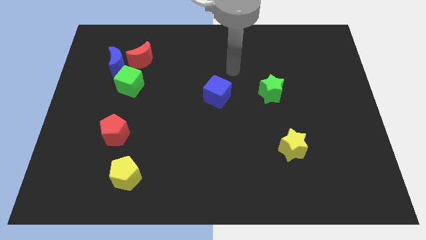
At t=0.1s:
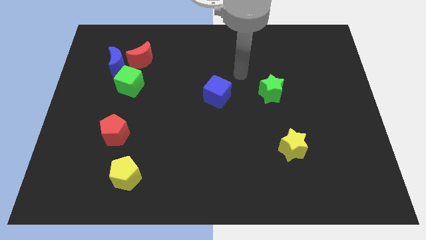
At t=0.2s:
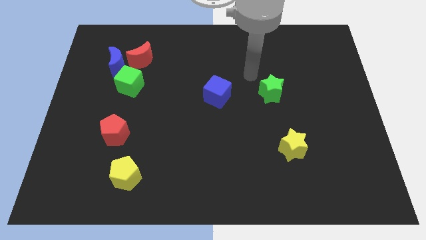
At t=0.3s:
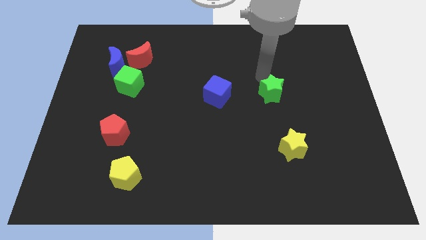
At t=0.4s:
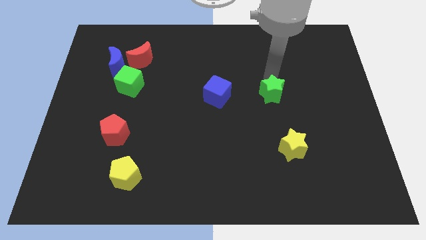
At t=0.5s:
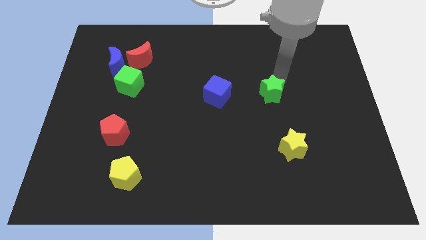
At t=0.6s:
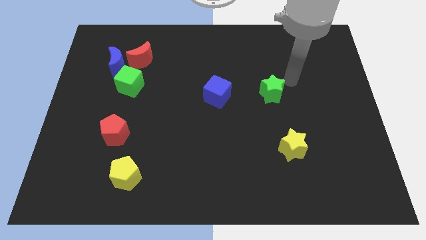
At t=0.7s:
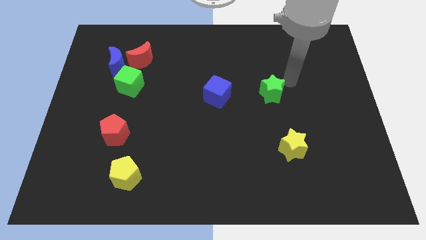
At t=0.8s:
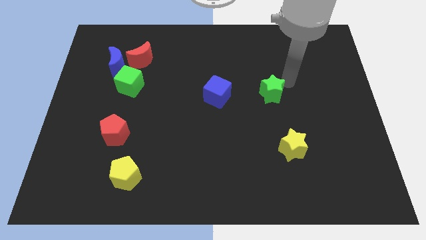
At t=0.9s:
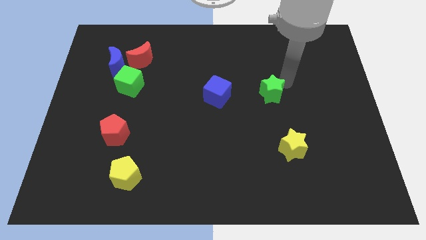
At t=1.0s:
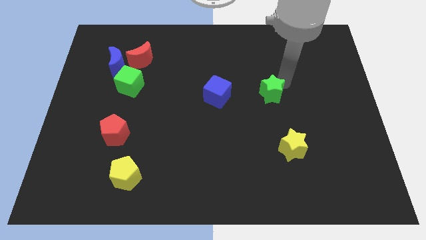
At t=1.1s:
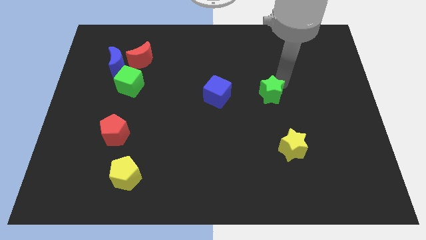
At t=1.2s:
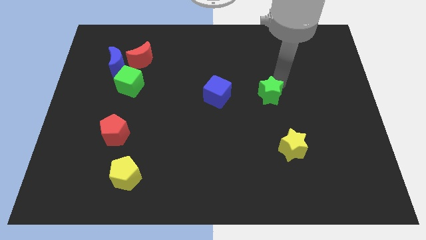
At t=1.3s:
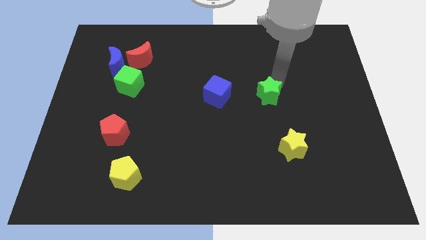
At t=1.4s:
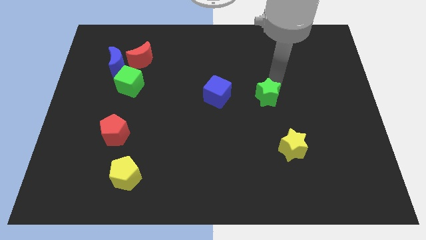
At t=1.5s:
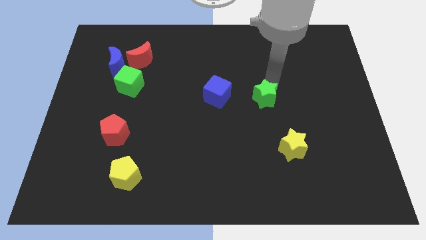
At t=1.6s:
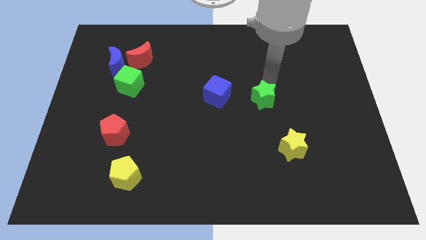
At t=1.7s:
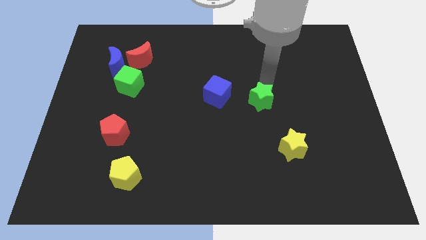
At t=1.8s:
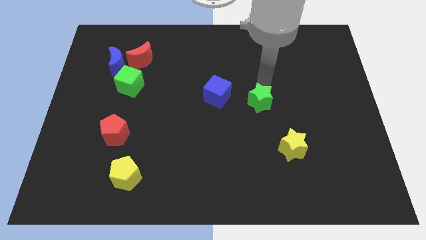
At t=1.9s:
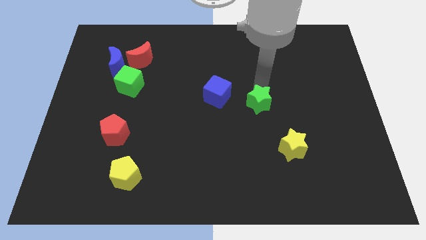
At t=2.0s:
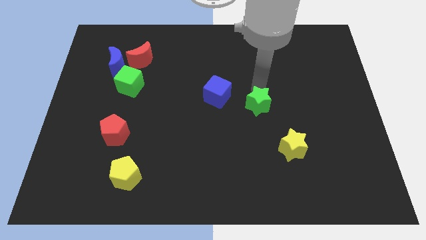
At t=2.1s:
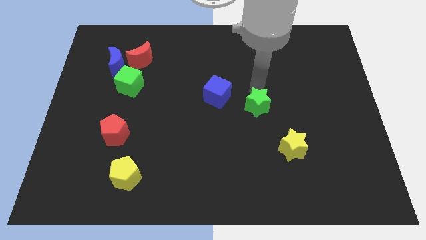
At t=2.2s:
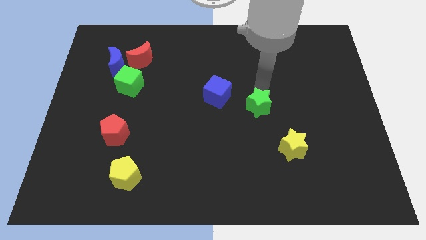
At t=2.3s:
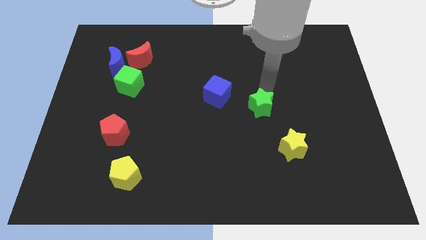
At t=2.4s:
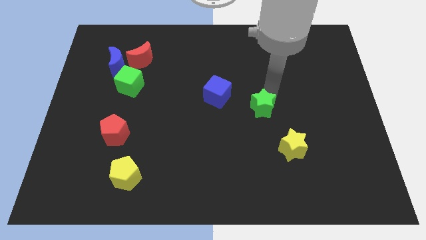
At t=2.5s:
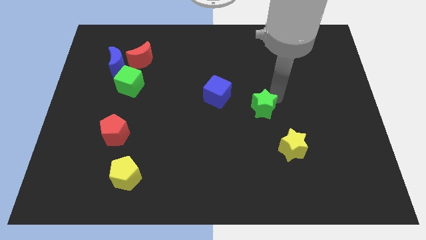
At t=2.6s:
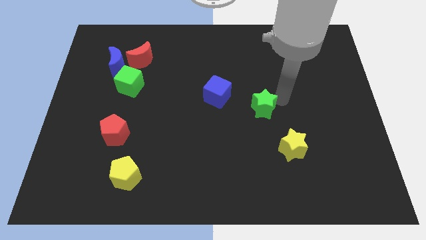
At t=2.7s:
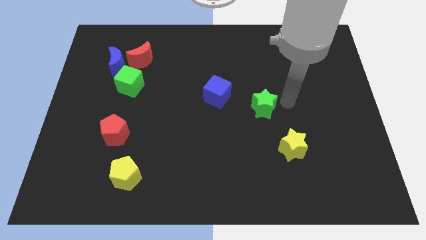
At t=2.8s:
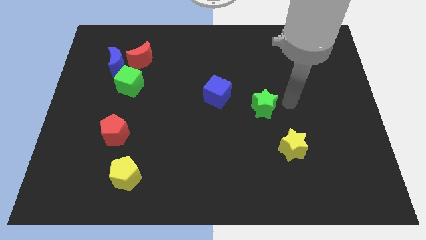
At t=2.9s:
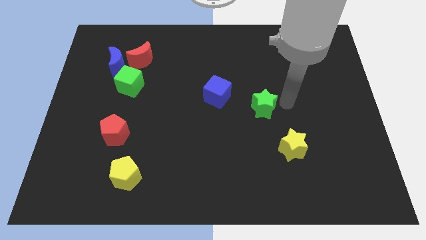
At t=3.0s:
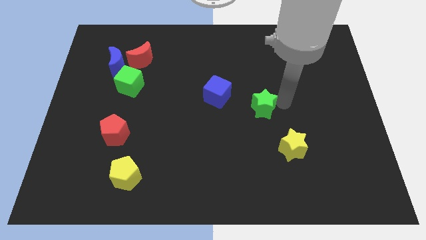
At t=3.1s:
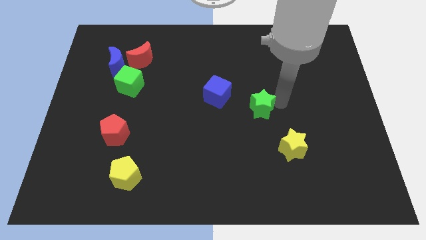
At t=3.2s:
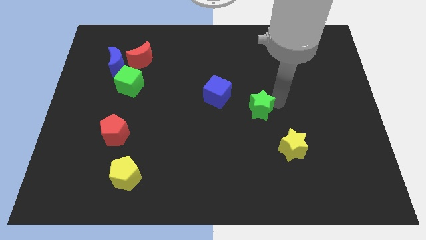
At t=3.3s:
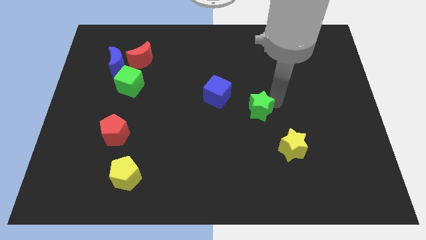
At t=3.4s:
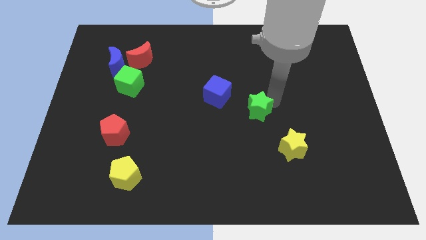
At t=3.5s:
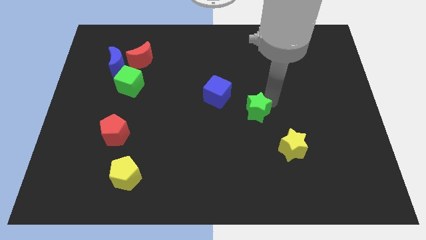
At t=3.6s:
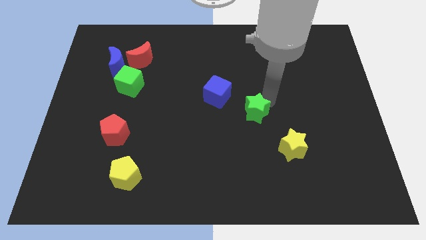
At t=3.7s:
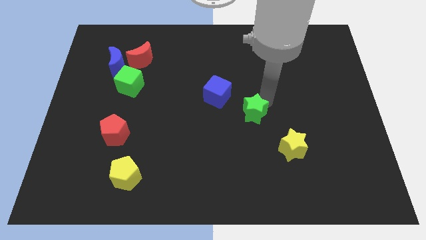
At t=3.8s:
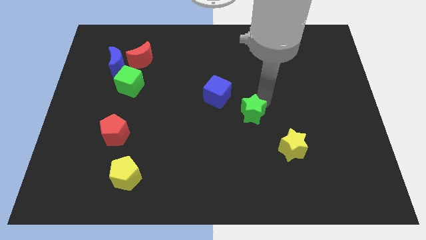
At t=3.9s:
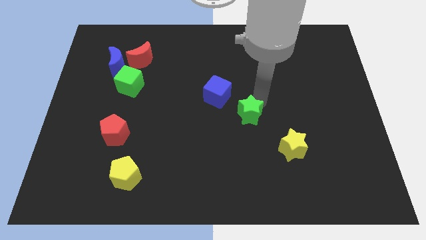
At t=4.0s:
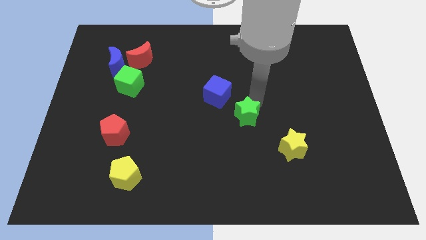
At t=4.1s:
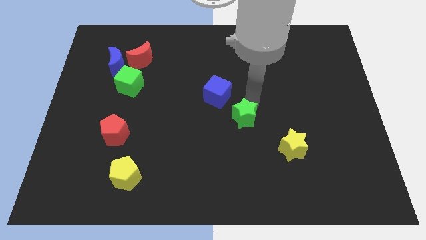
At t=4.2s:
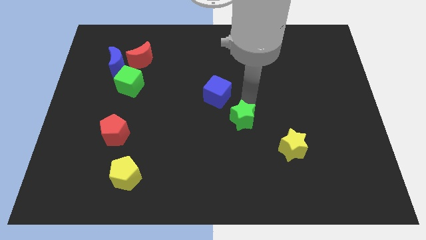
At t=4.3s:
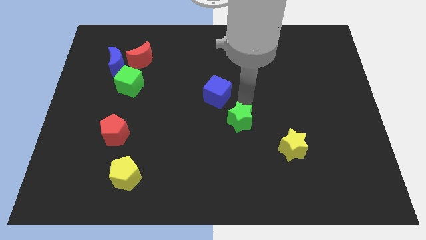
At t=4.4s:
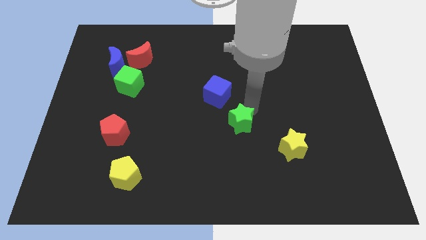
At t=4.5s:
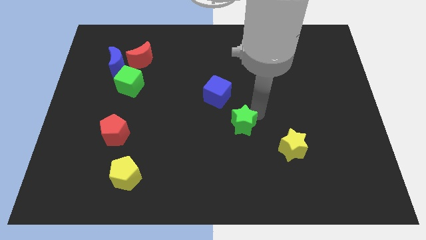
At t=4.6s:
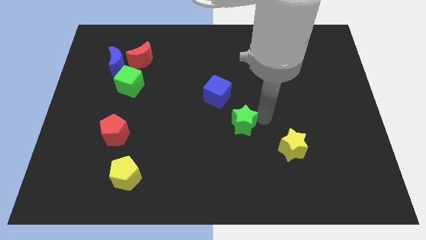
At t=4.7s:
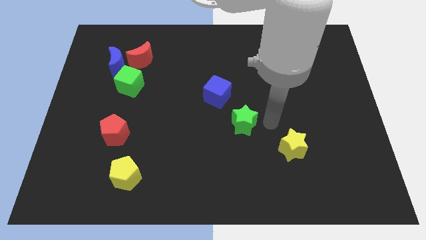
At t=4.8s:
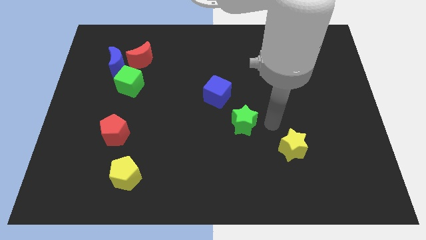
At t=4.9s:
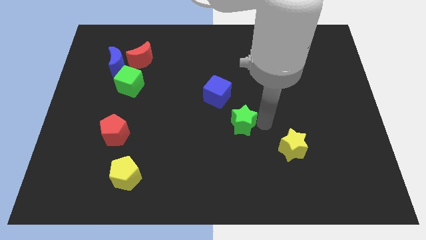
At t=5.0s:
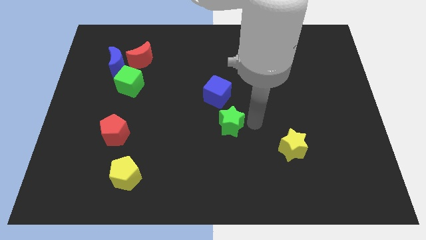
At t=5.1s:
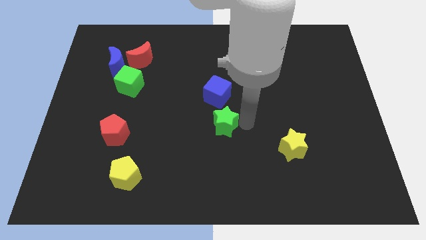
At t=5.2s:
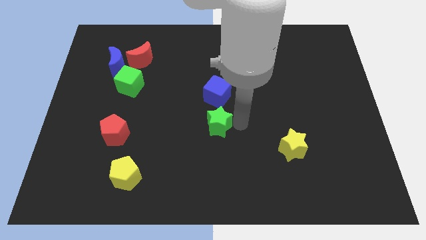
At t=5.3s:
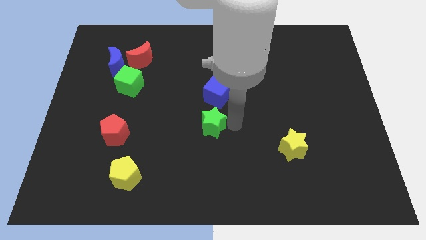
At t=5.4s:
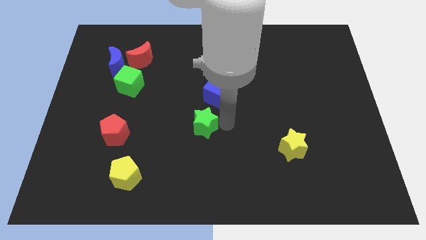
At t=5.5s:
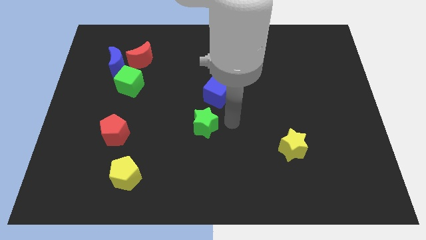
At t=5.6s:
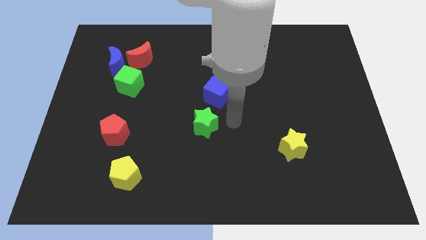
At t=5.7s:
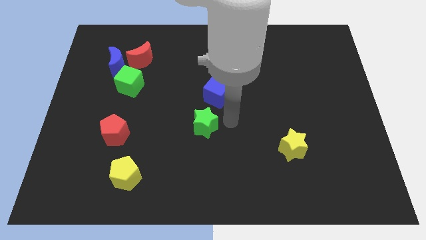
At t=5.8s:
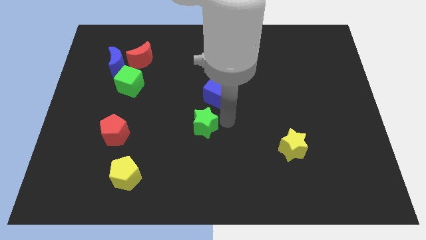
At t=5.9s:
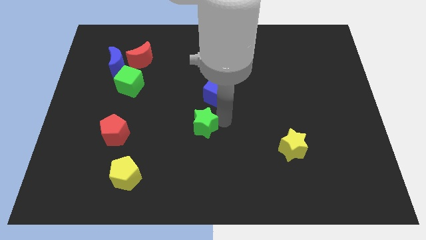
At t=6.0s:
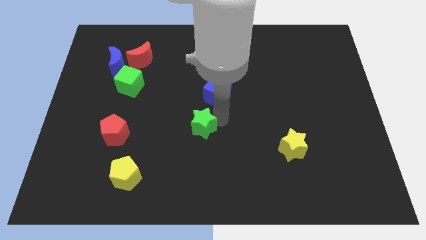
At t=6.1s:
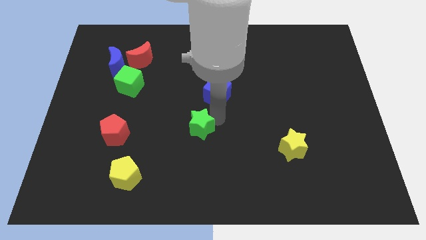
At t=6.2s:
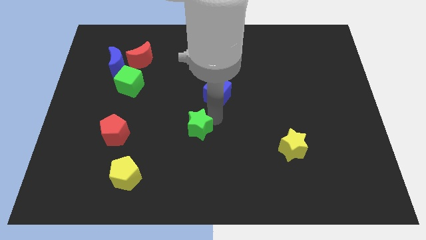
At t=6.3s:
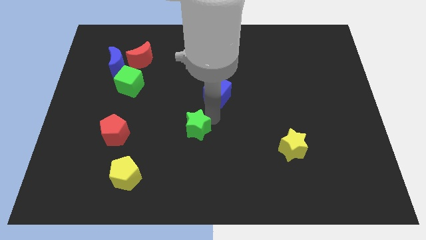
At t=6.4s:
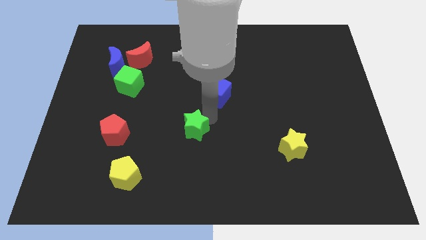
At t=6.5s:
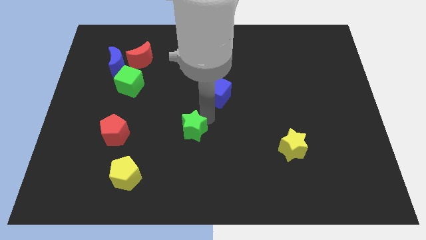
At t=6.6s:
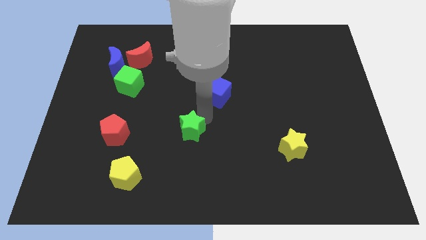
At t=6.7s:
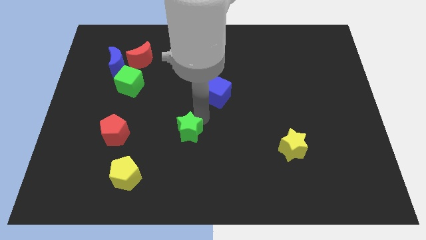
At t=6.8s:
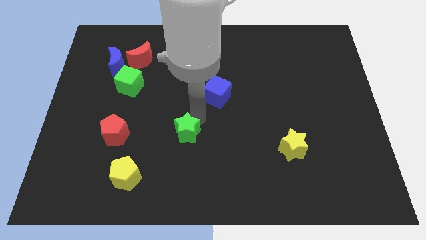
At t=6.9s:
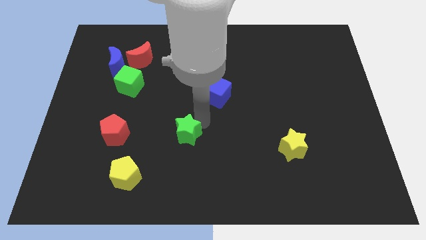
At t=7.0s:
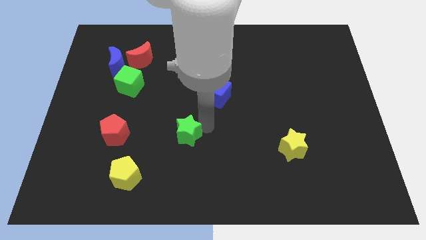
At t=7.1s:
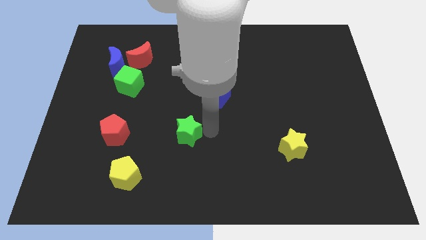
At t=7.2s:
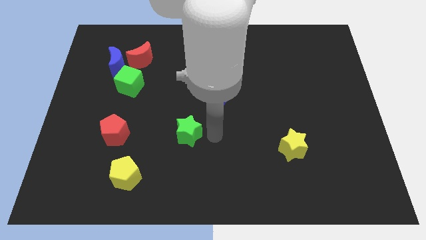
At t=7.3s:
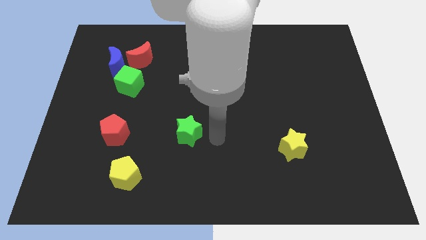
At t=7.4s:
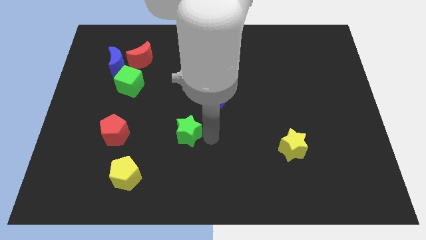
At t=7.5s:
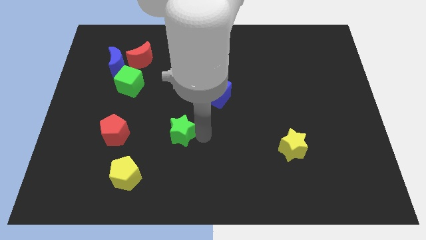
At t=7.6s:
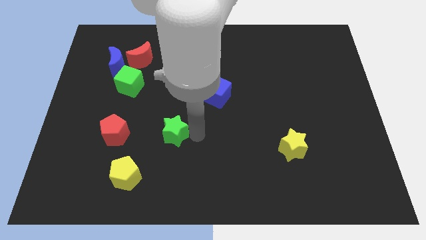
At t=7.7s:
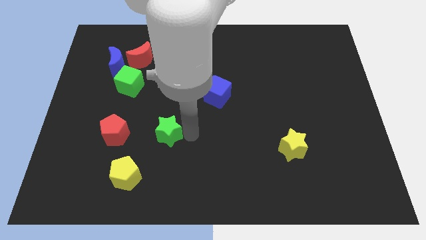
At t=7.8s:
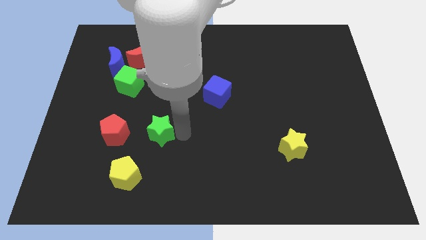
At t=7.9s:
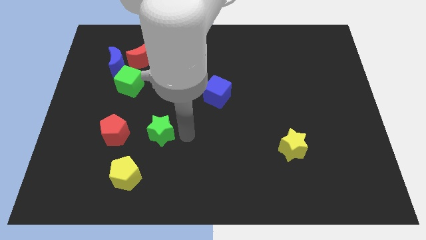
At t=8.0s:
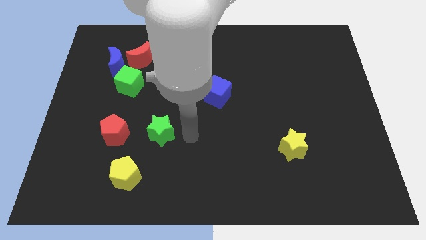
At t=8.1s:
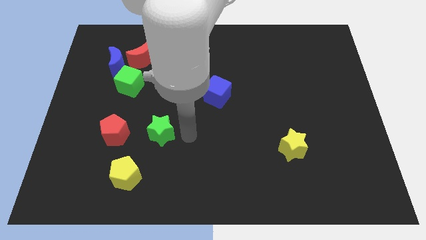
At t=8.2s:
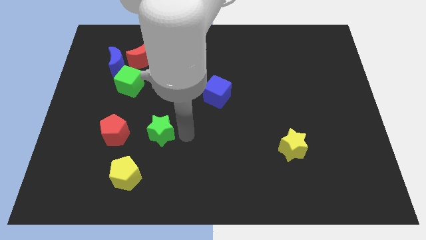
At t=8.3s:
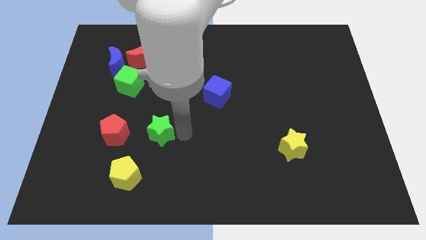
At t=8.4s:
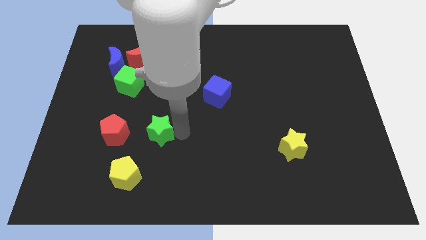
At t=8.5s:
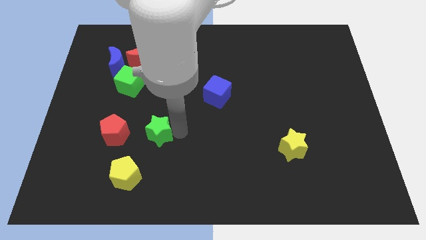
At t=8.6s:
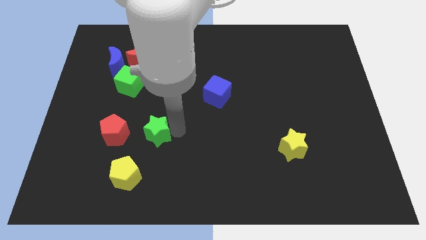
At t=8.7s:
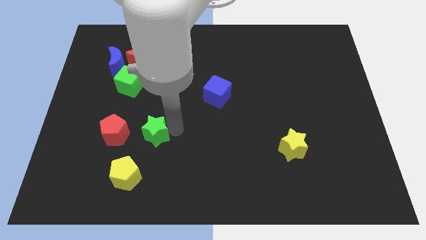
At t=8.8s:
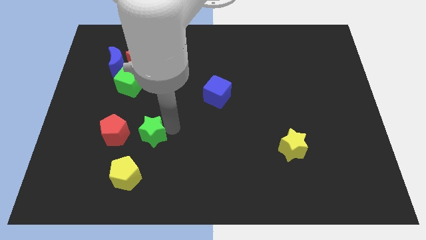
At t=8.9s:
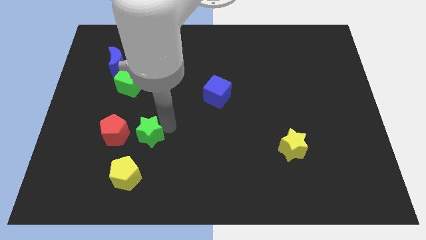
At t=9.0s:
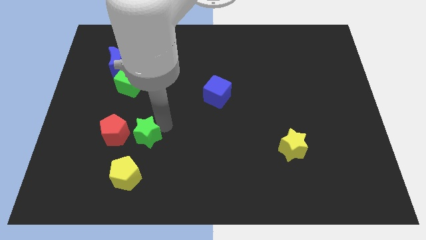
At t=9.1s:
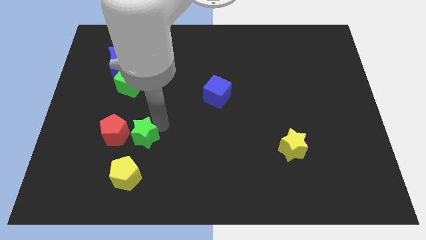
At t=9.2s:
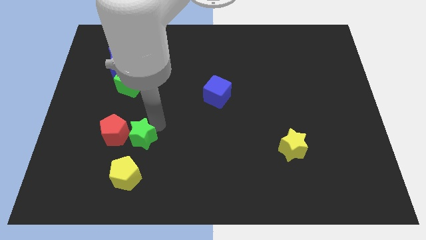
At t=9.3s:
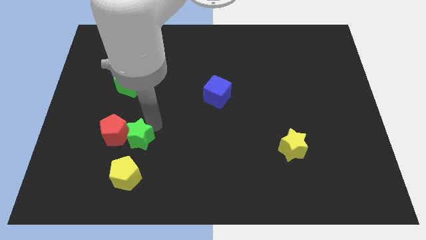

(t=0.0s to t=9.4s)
slide the green star towards the red pentagon
